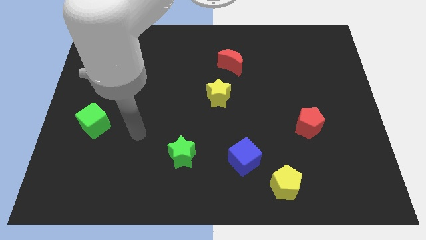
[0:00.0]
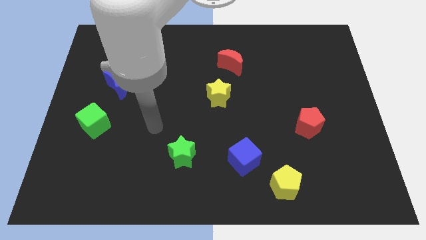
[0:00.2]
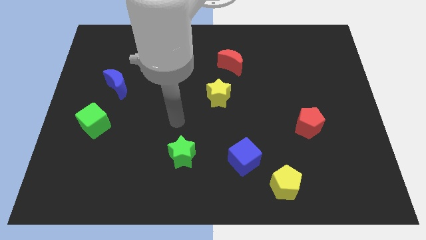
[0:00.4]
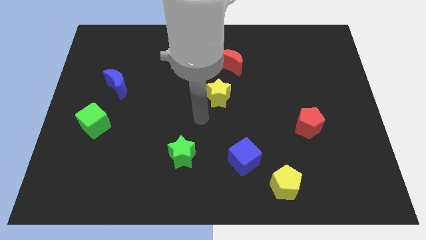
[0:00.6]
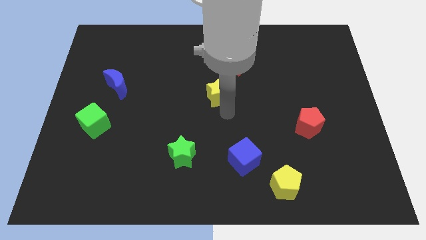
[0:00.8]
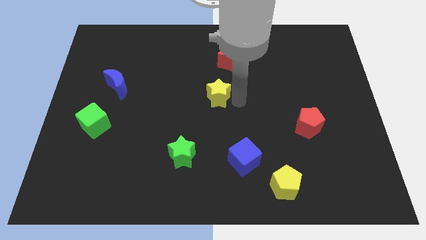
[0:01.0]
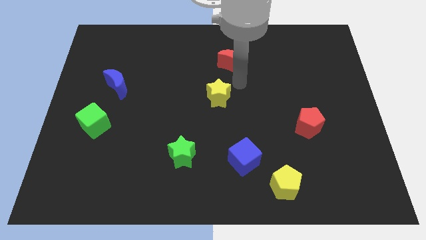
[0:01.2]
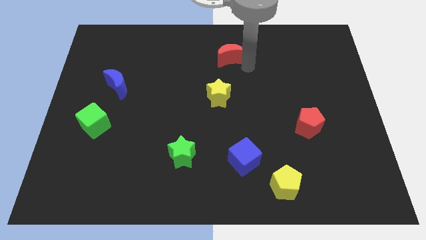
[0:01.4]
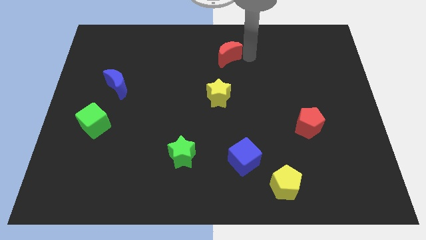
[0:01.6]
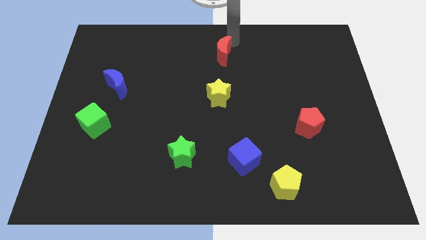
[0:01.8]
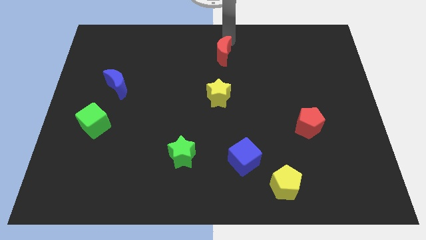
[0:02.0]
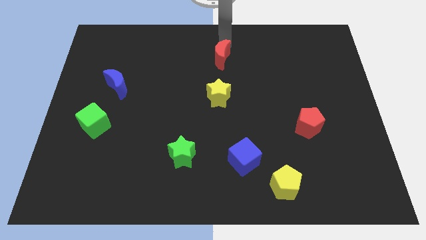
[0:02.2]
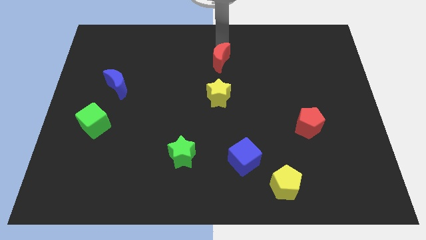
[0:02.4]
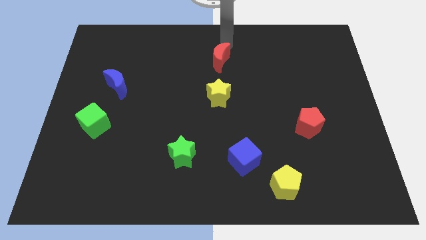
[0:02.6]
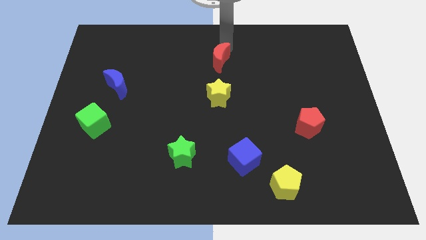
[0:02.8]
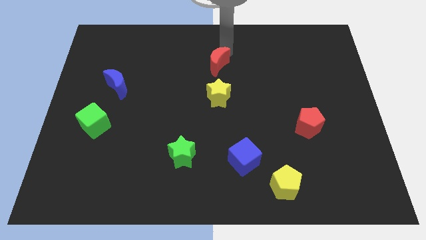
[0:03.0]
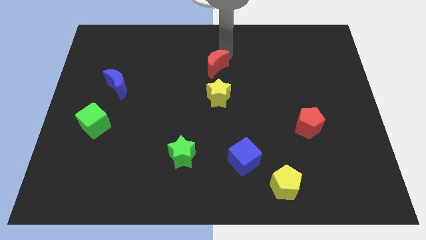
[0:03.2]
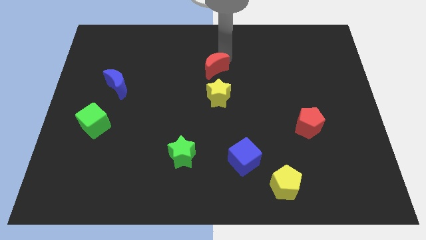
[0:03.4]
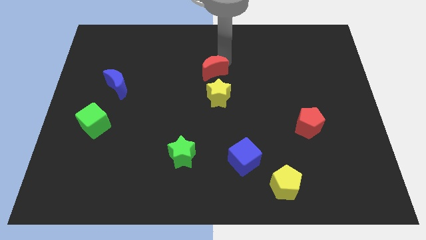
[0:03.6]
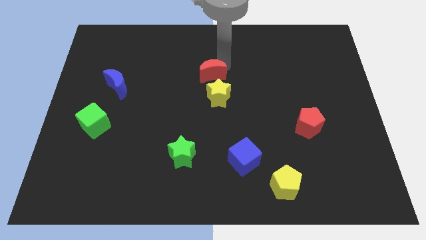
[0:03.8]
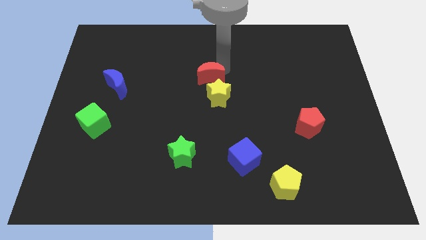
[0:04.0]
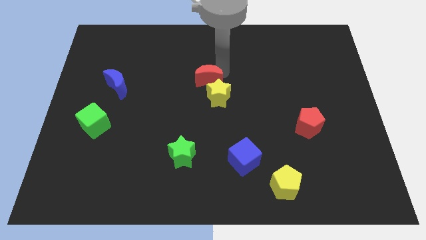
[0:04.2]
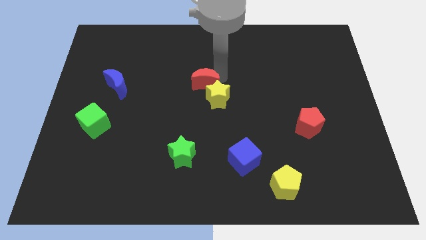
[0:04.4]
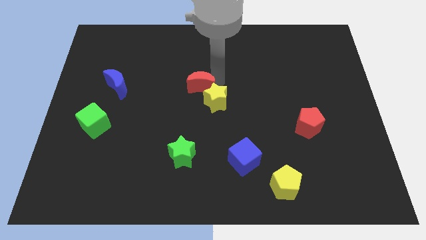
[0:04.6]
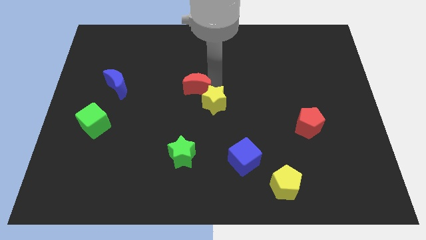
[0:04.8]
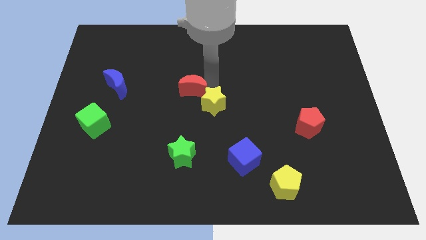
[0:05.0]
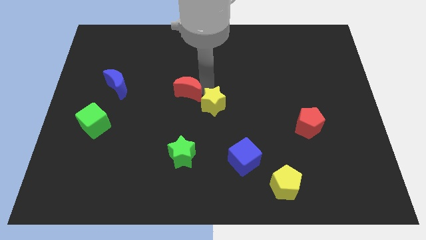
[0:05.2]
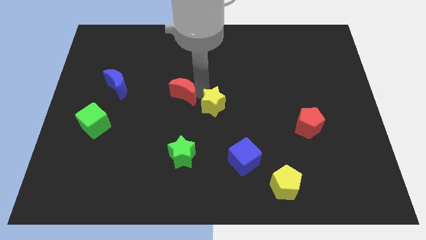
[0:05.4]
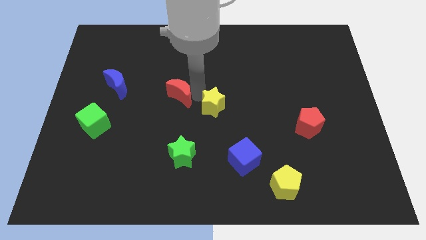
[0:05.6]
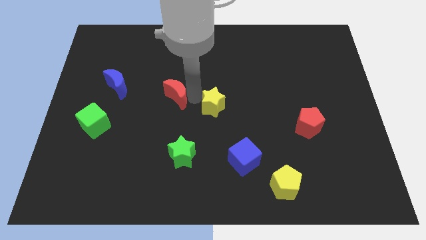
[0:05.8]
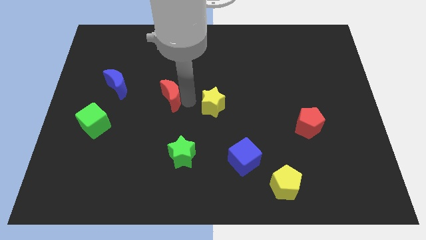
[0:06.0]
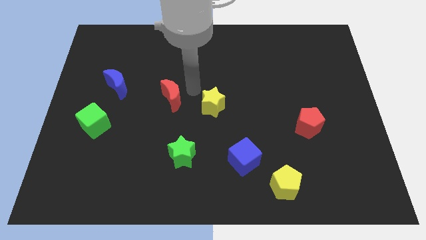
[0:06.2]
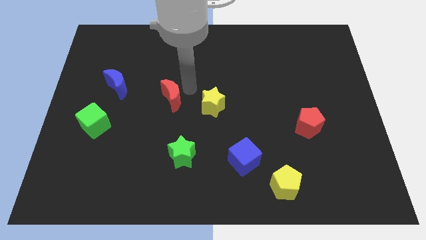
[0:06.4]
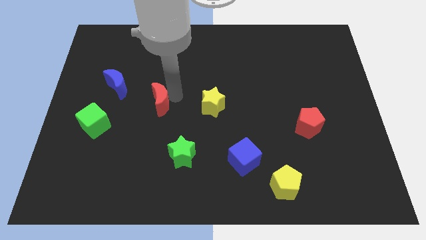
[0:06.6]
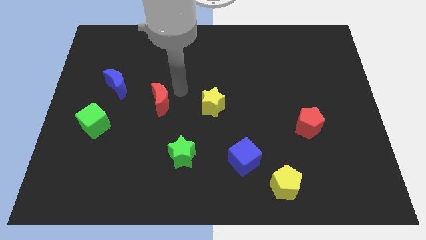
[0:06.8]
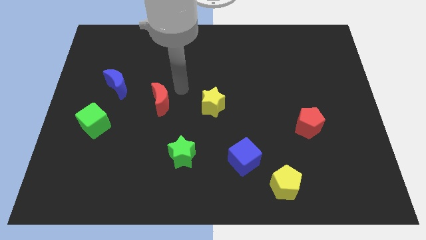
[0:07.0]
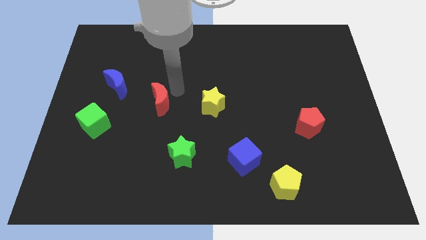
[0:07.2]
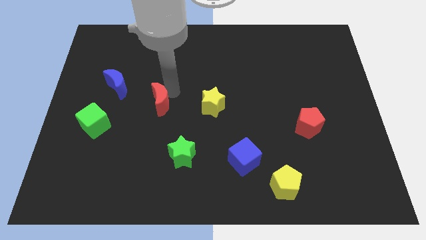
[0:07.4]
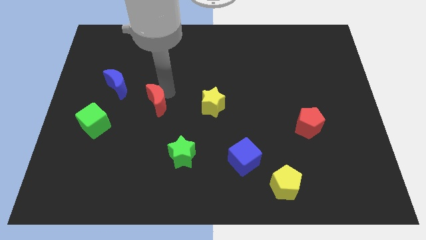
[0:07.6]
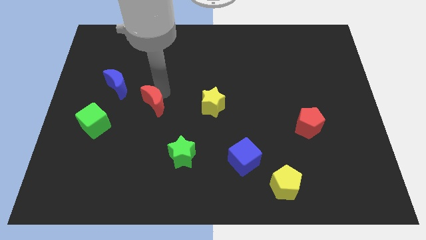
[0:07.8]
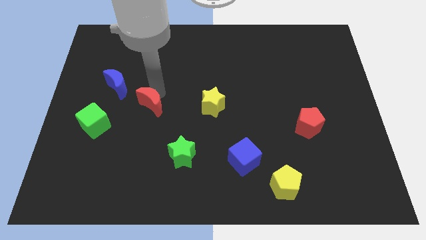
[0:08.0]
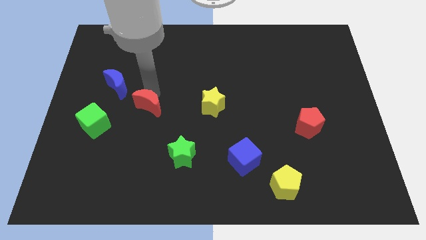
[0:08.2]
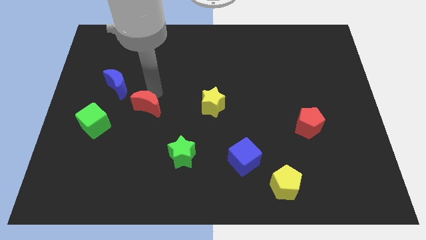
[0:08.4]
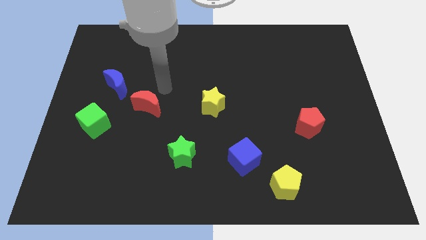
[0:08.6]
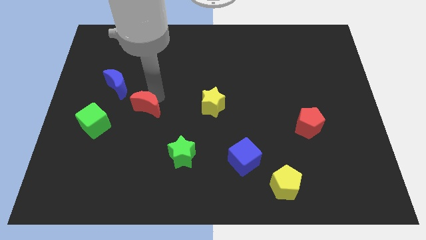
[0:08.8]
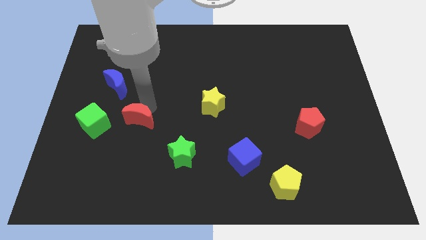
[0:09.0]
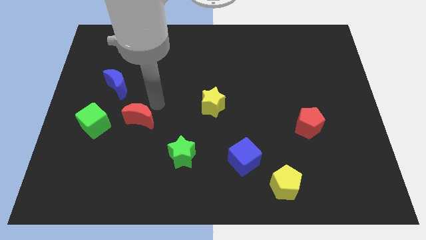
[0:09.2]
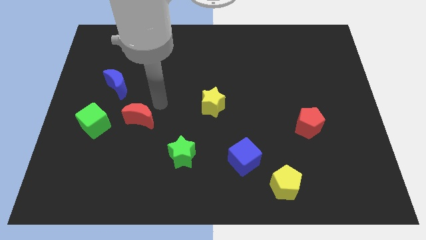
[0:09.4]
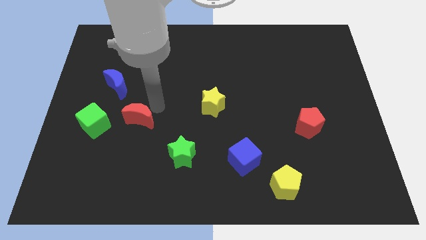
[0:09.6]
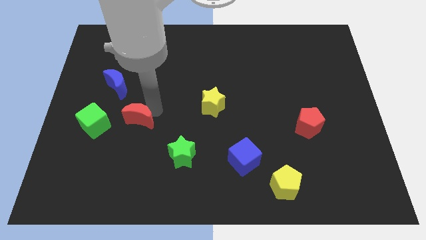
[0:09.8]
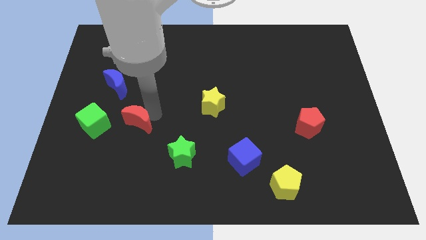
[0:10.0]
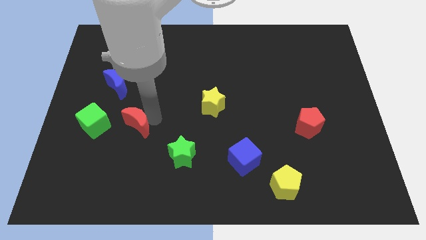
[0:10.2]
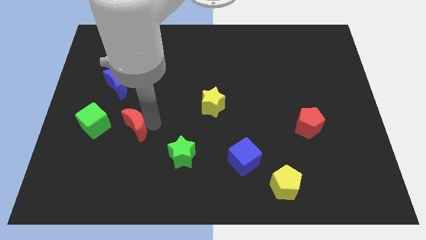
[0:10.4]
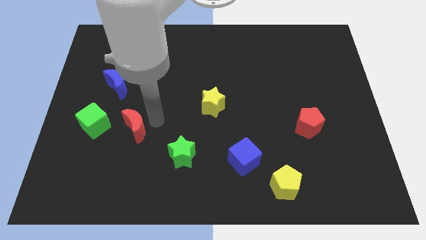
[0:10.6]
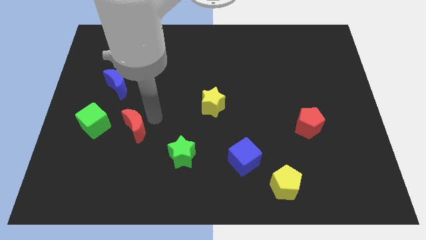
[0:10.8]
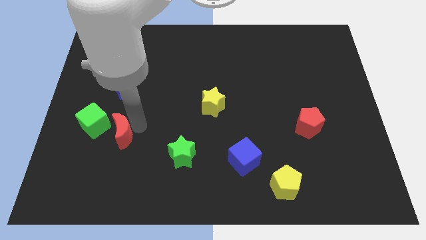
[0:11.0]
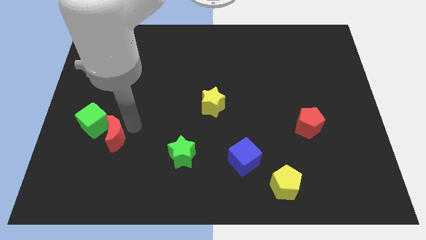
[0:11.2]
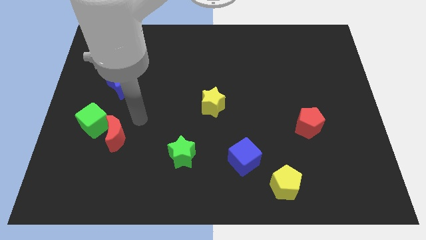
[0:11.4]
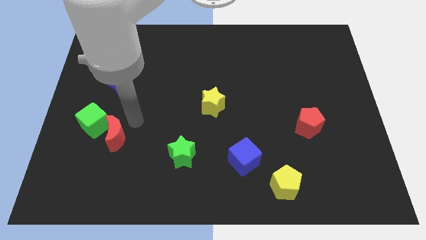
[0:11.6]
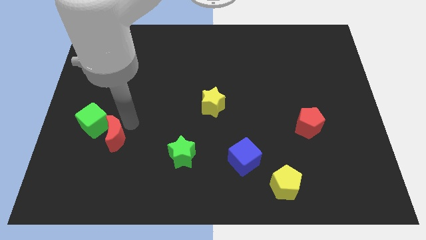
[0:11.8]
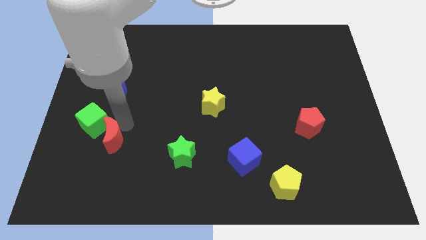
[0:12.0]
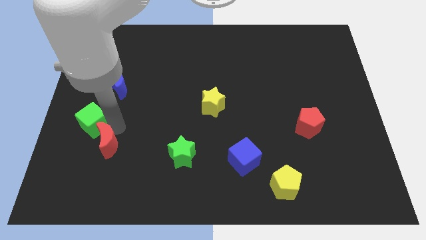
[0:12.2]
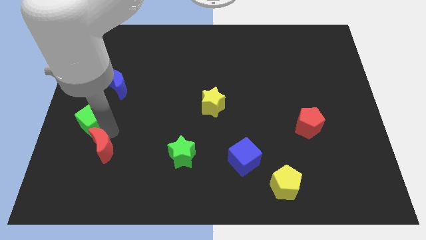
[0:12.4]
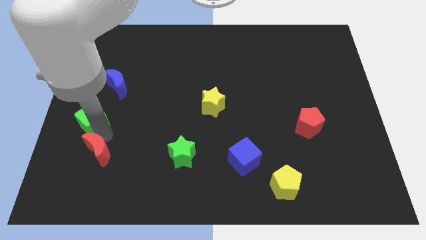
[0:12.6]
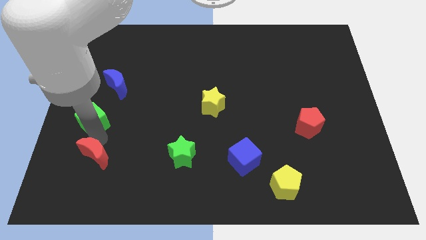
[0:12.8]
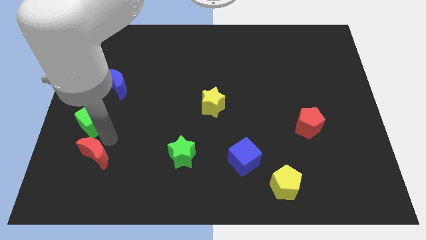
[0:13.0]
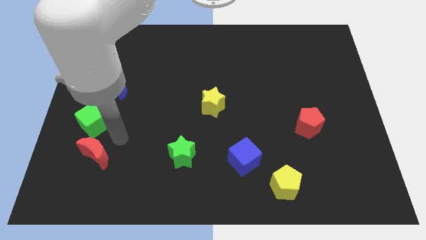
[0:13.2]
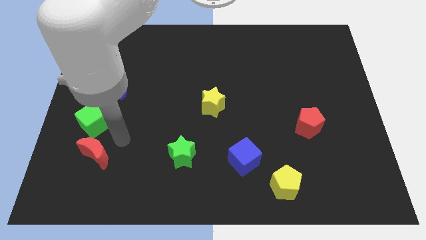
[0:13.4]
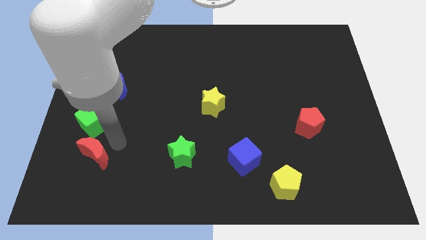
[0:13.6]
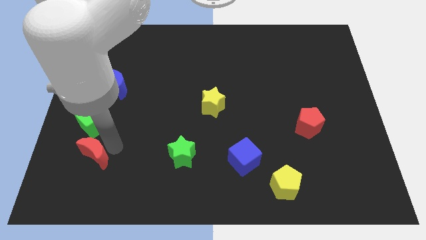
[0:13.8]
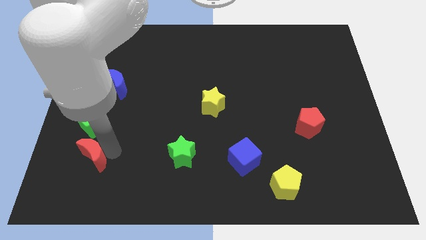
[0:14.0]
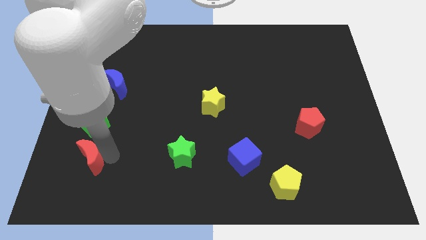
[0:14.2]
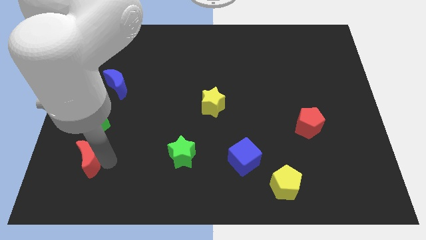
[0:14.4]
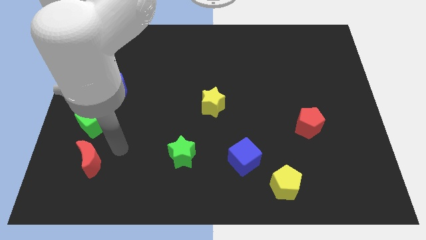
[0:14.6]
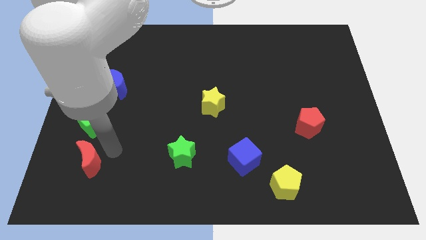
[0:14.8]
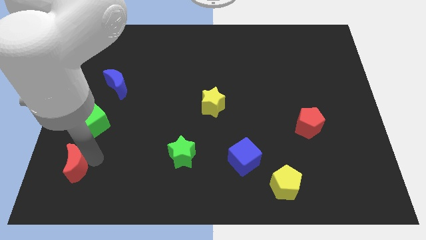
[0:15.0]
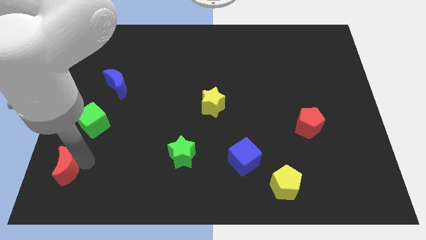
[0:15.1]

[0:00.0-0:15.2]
push the red moon to the bottom left of the board
